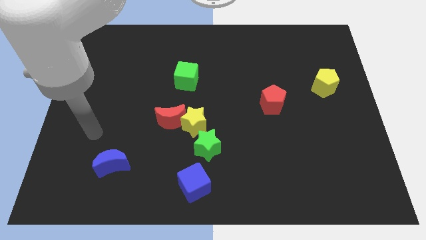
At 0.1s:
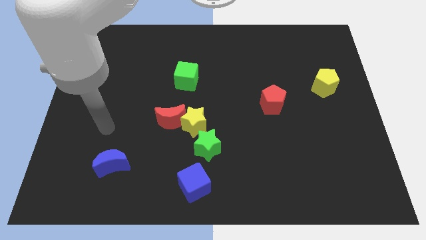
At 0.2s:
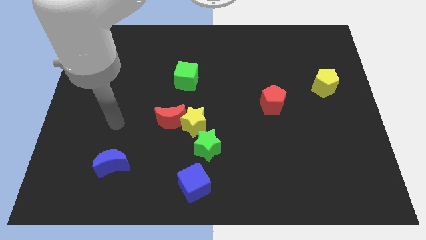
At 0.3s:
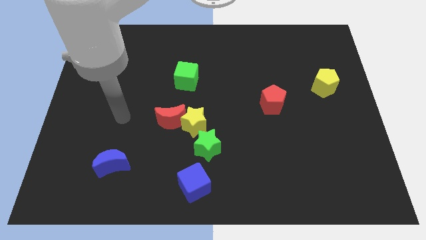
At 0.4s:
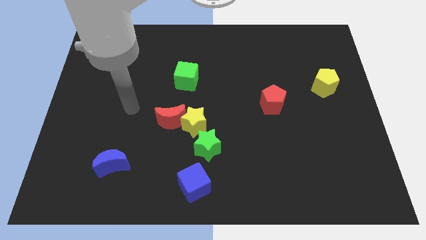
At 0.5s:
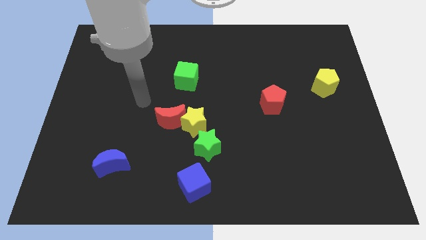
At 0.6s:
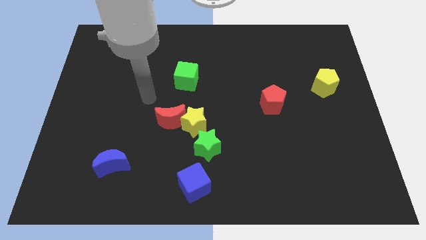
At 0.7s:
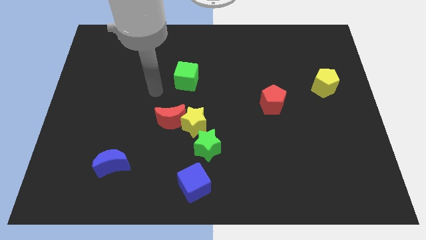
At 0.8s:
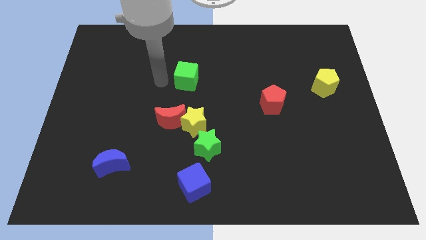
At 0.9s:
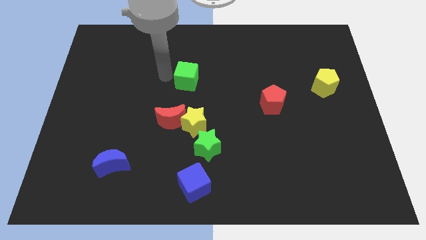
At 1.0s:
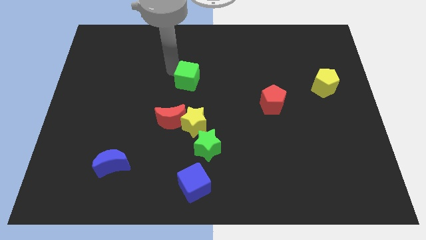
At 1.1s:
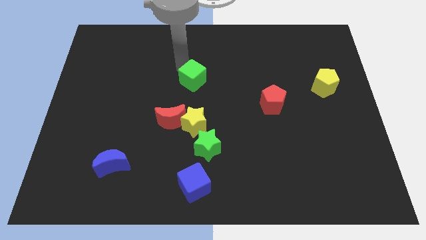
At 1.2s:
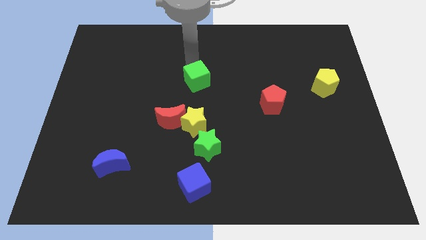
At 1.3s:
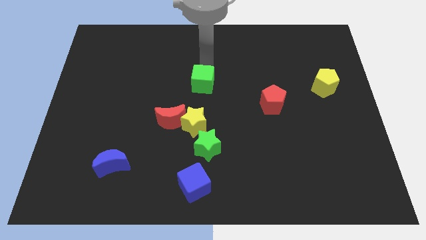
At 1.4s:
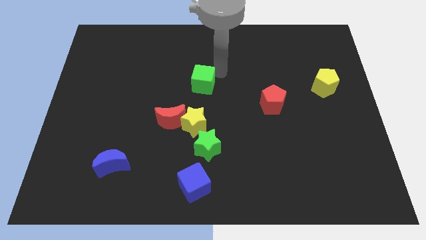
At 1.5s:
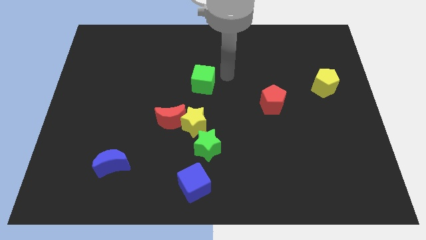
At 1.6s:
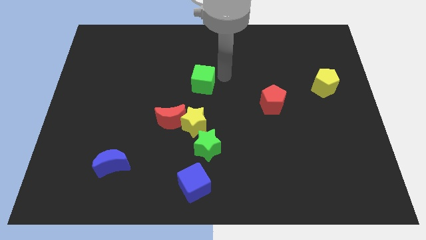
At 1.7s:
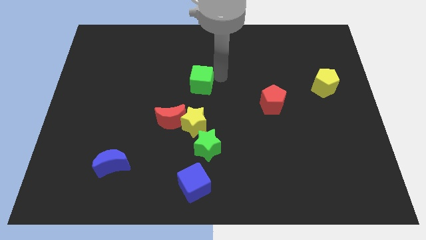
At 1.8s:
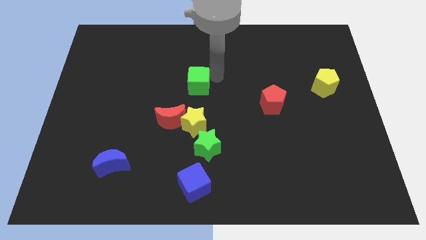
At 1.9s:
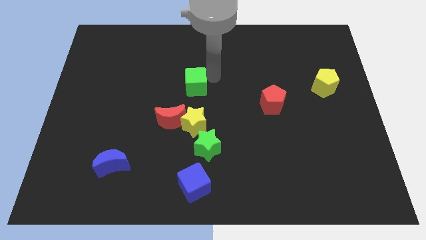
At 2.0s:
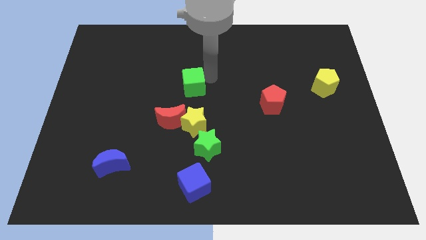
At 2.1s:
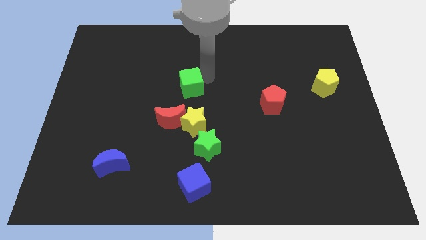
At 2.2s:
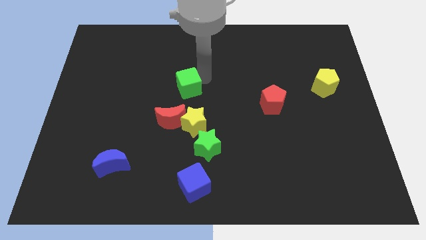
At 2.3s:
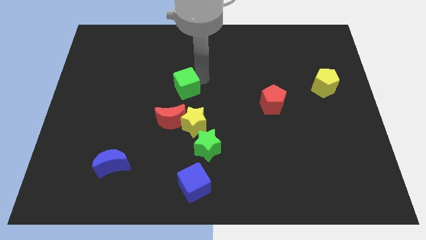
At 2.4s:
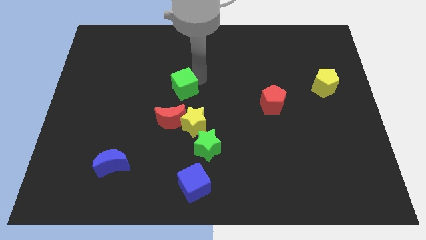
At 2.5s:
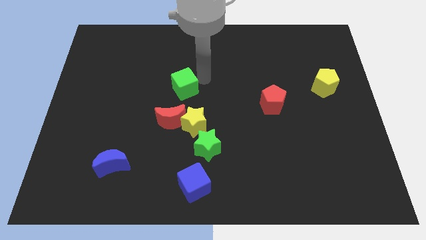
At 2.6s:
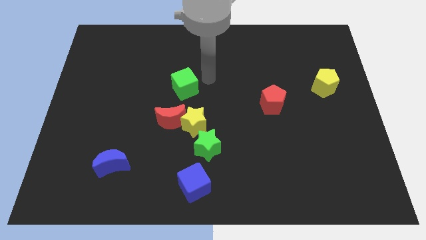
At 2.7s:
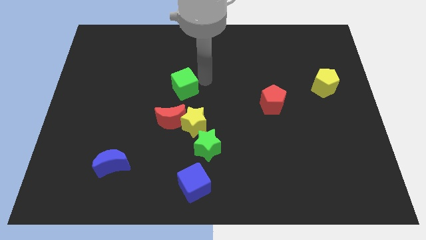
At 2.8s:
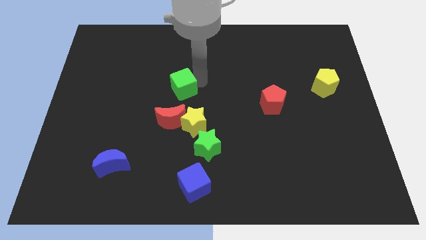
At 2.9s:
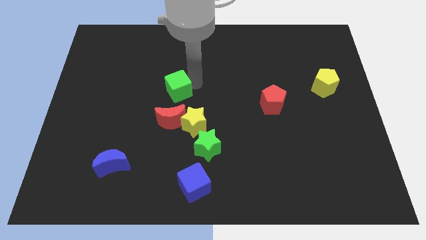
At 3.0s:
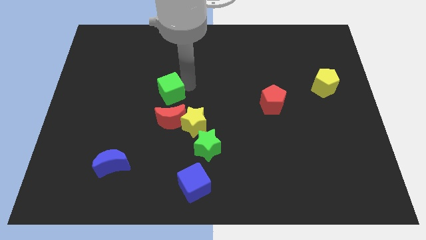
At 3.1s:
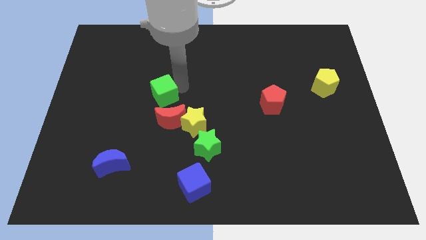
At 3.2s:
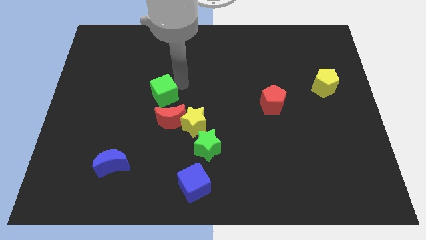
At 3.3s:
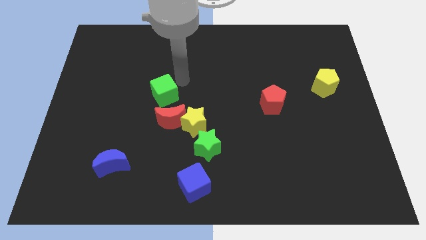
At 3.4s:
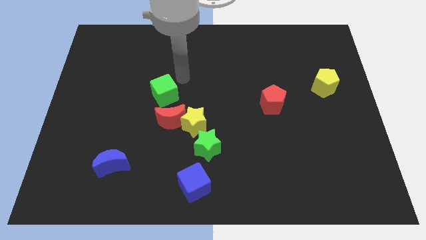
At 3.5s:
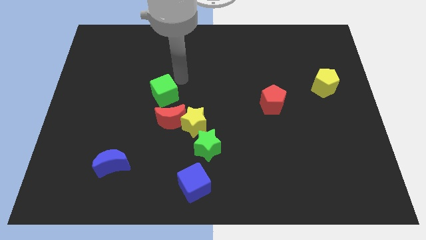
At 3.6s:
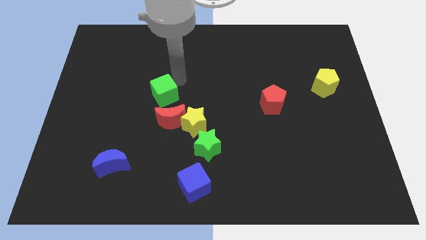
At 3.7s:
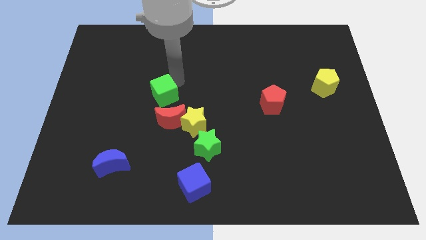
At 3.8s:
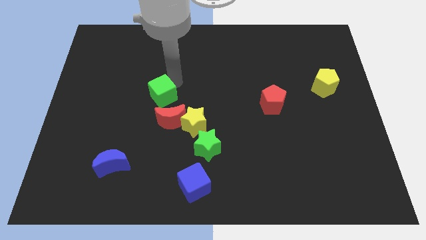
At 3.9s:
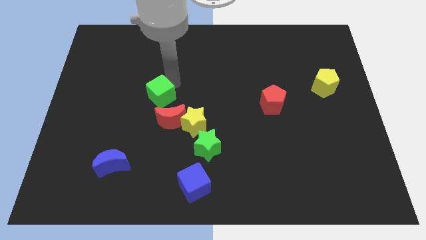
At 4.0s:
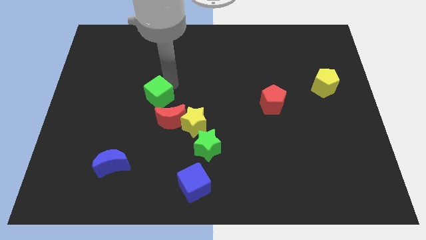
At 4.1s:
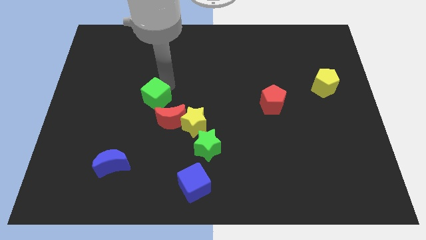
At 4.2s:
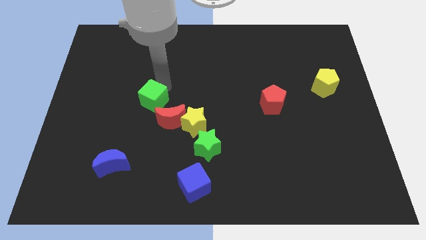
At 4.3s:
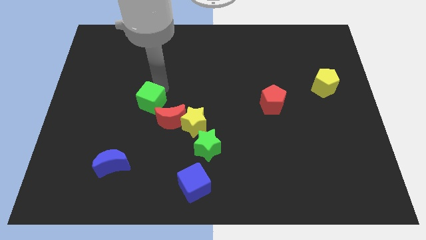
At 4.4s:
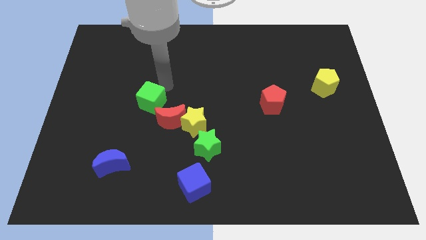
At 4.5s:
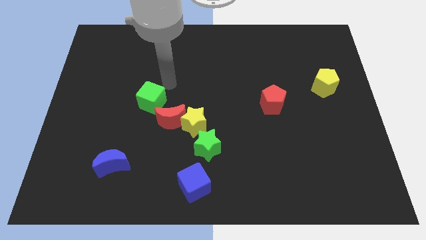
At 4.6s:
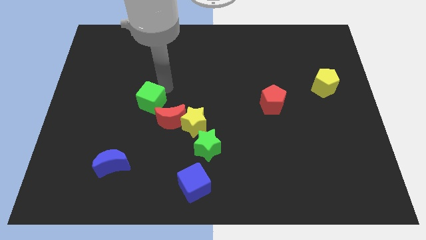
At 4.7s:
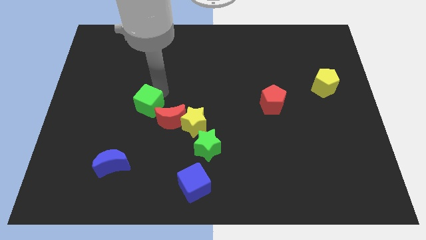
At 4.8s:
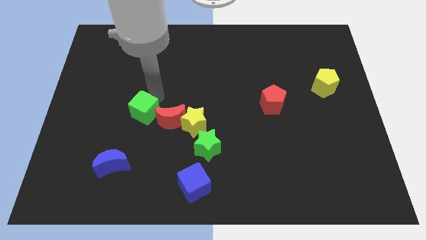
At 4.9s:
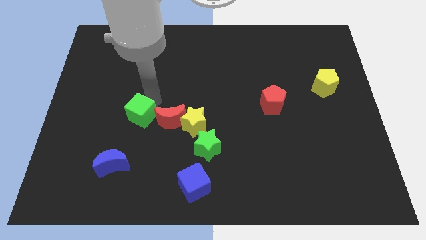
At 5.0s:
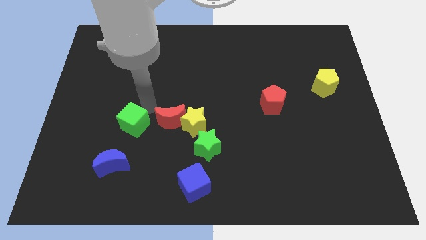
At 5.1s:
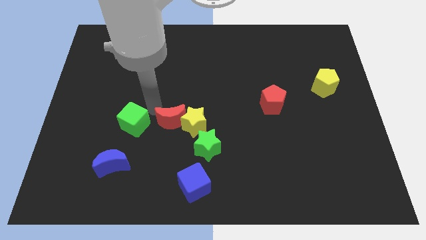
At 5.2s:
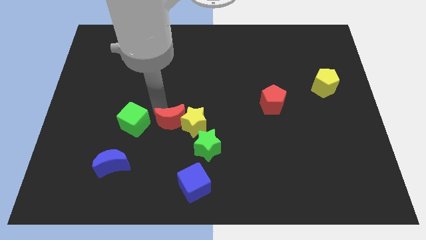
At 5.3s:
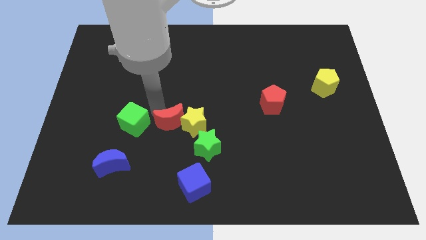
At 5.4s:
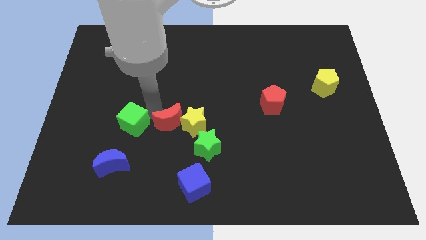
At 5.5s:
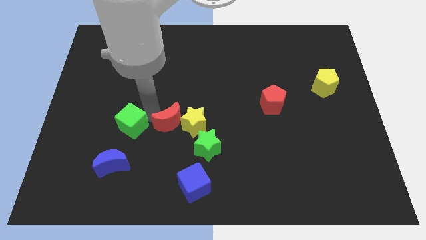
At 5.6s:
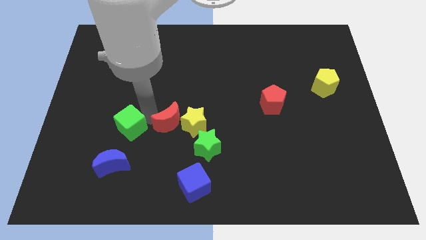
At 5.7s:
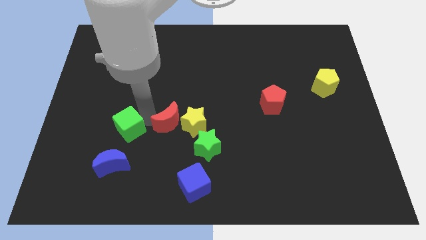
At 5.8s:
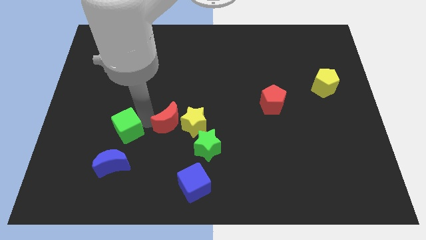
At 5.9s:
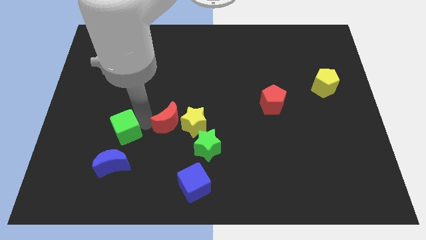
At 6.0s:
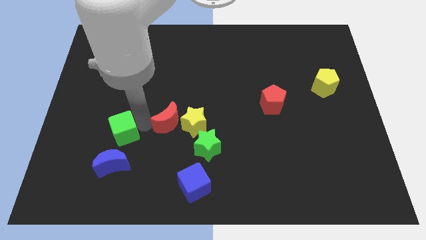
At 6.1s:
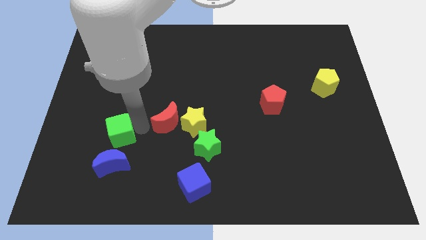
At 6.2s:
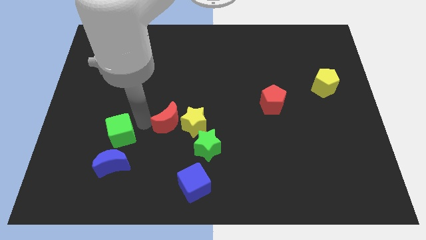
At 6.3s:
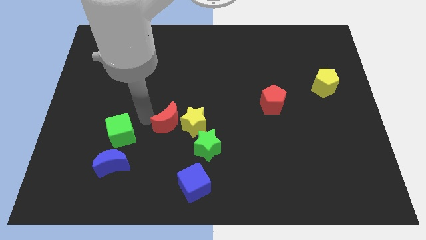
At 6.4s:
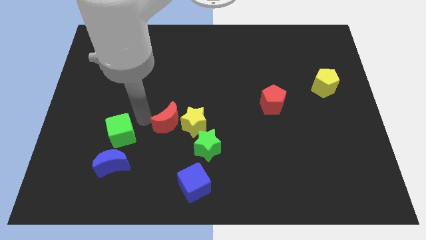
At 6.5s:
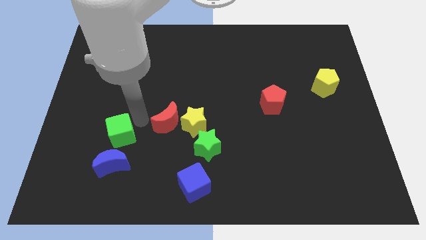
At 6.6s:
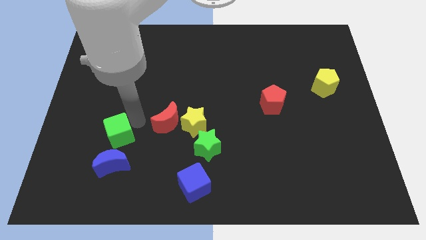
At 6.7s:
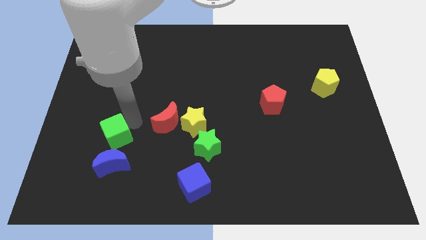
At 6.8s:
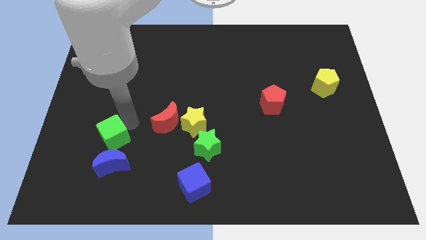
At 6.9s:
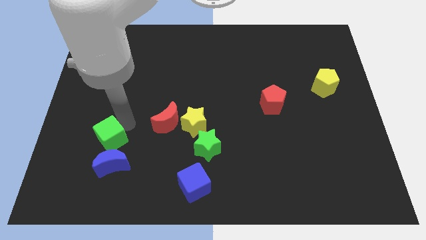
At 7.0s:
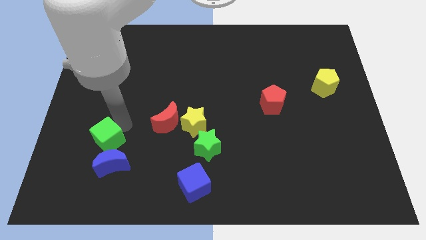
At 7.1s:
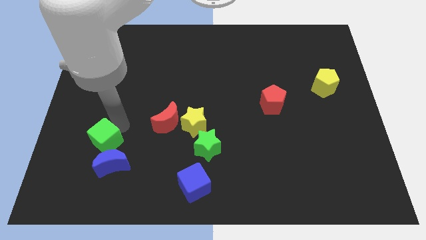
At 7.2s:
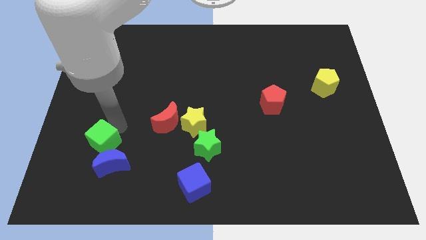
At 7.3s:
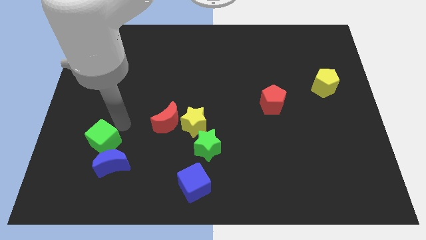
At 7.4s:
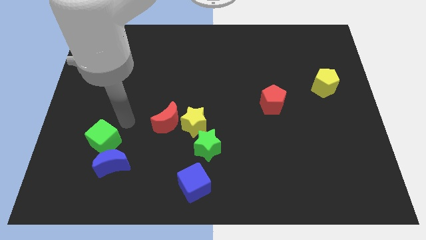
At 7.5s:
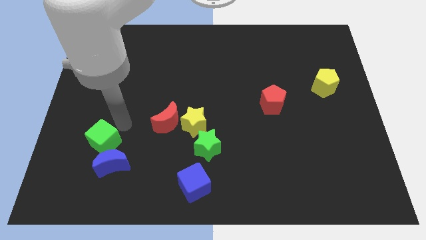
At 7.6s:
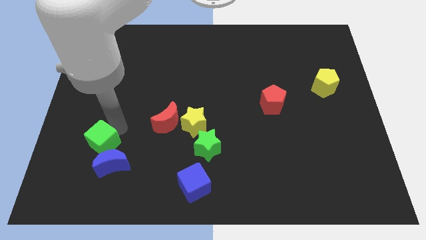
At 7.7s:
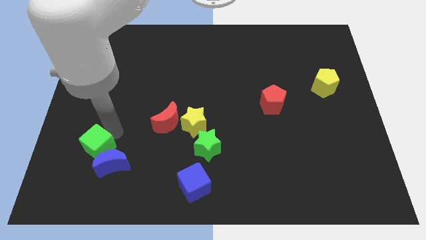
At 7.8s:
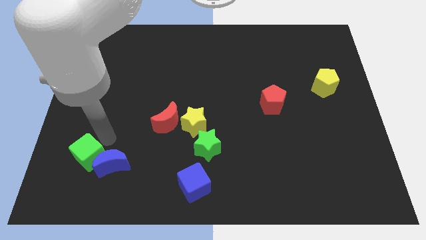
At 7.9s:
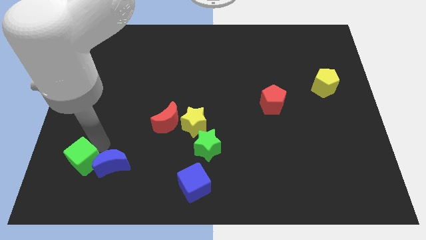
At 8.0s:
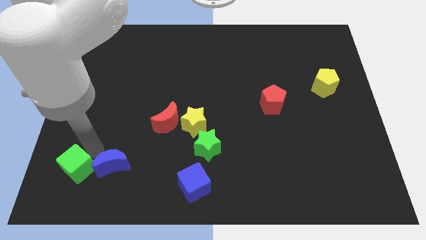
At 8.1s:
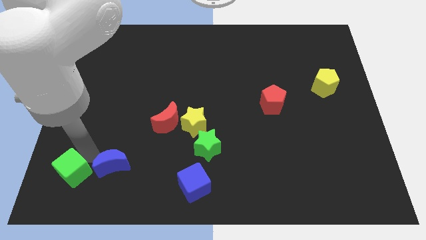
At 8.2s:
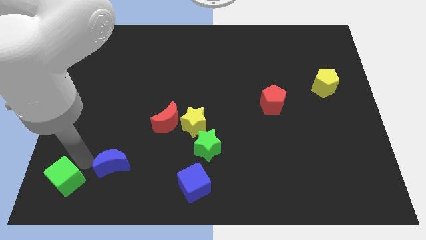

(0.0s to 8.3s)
slide the green cube to the bottom left of the board
